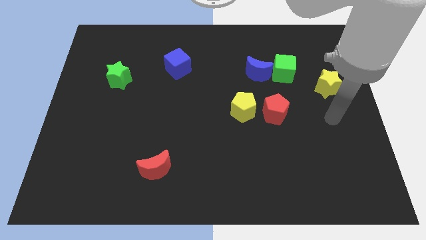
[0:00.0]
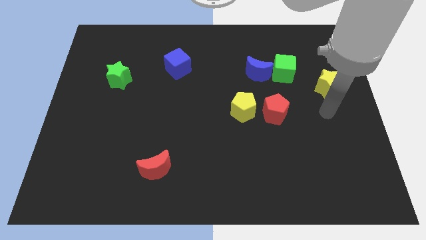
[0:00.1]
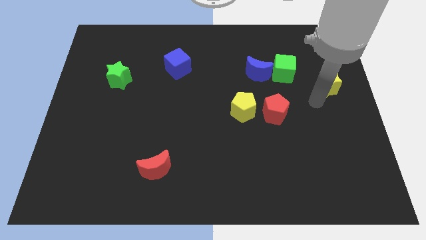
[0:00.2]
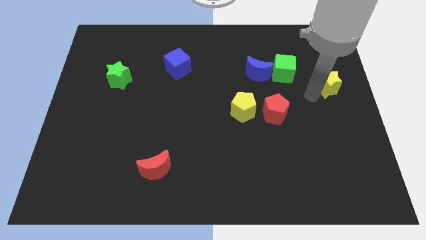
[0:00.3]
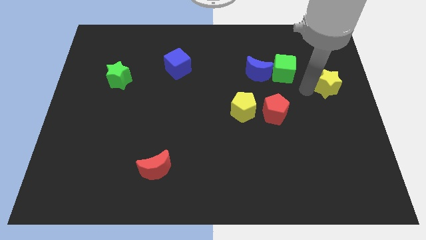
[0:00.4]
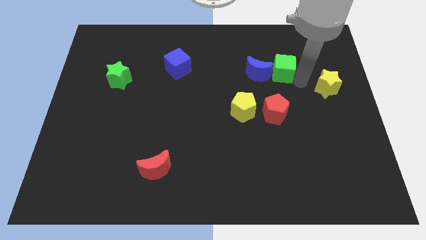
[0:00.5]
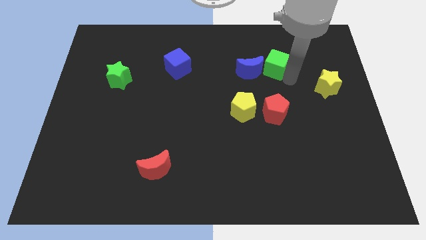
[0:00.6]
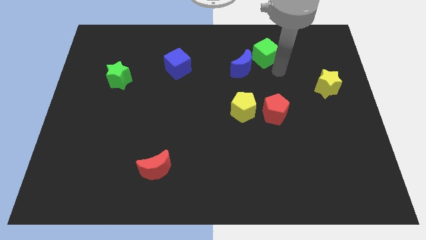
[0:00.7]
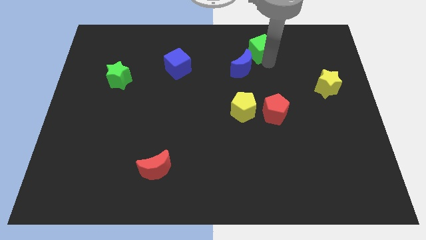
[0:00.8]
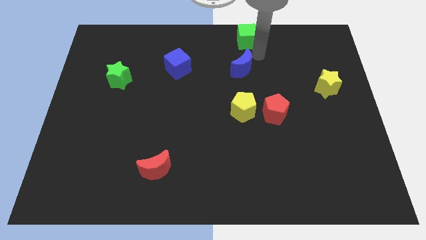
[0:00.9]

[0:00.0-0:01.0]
separate the blue moon from the green cube

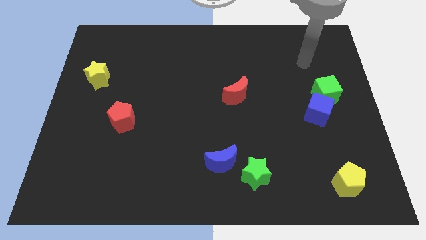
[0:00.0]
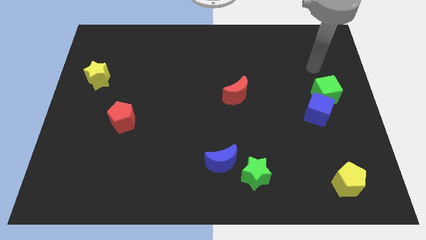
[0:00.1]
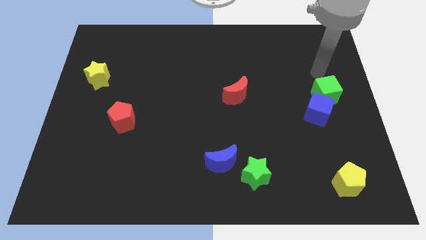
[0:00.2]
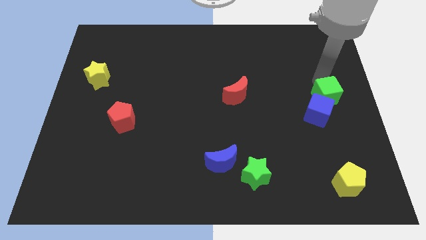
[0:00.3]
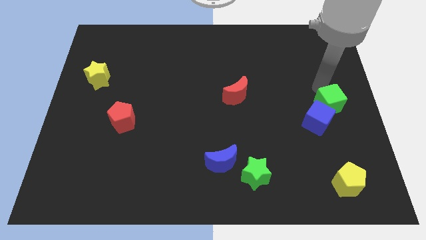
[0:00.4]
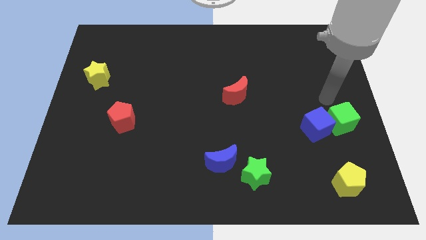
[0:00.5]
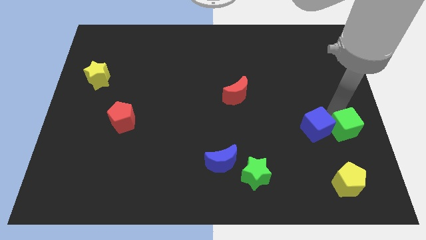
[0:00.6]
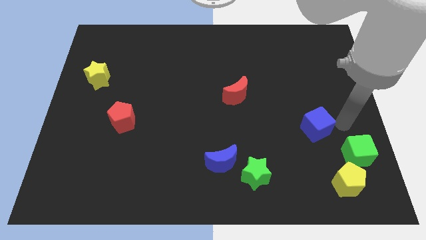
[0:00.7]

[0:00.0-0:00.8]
separate the blue cube from the green cube

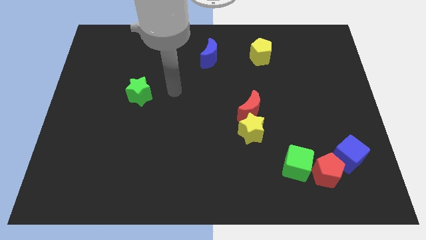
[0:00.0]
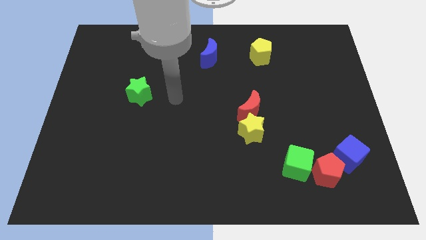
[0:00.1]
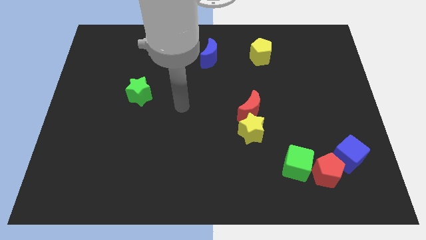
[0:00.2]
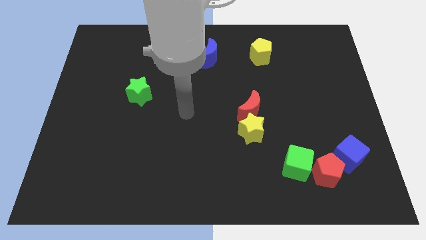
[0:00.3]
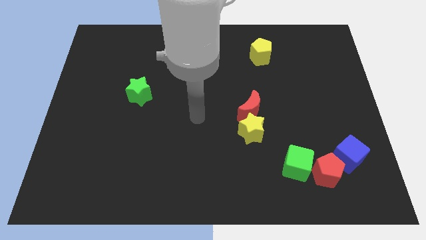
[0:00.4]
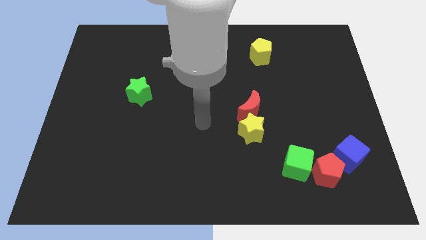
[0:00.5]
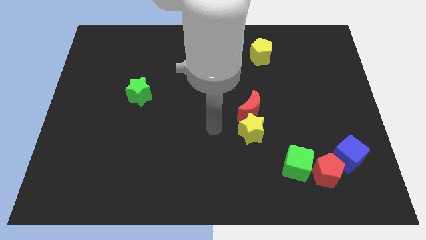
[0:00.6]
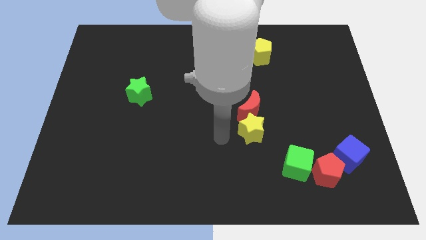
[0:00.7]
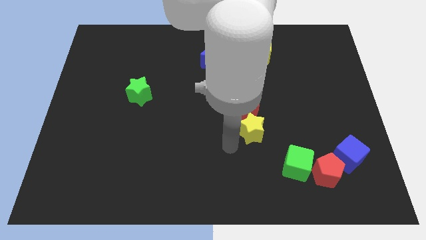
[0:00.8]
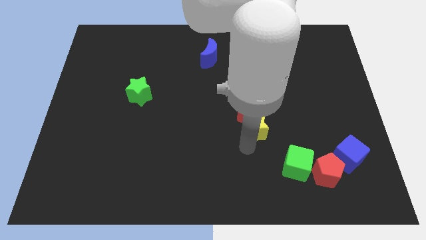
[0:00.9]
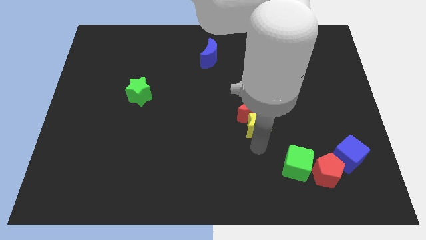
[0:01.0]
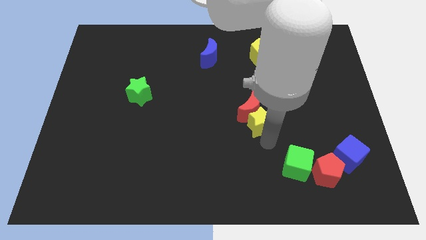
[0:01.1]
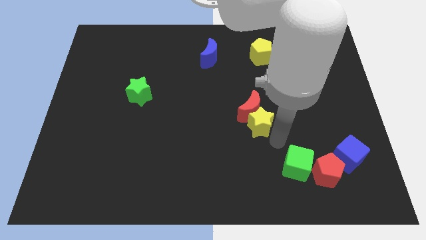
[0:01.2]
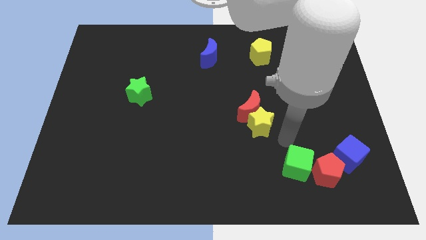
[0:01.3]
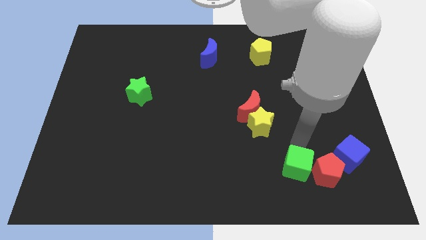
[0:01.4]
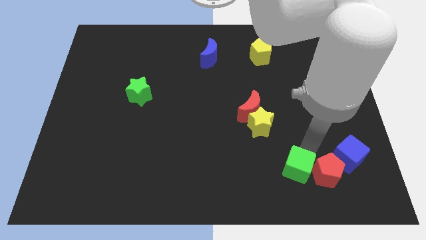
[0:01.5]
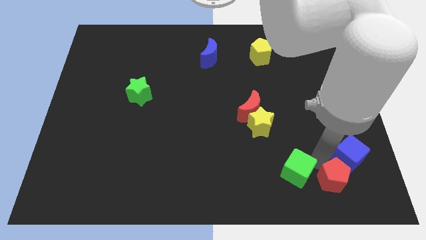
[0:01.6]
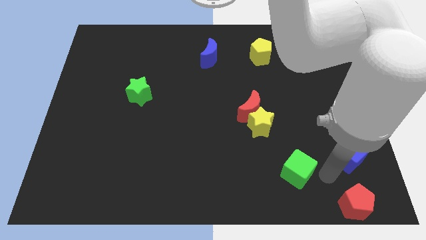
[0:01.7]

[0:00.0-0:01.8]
move the green cube away from the red pentagon

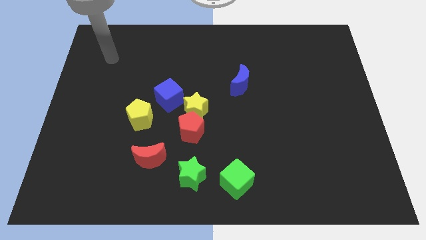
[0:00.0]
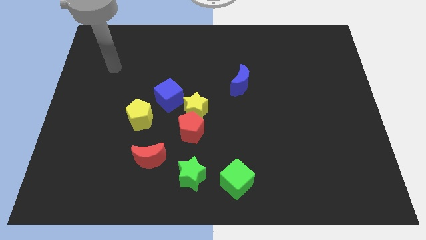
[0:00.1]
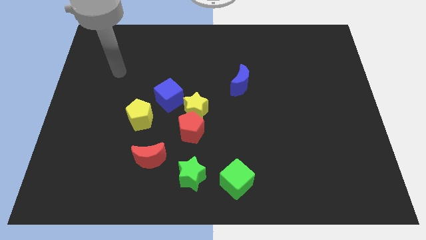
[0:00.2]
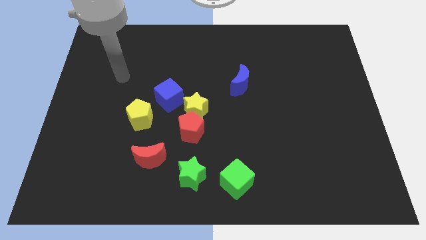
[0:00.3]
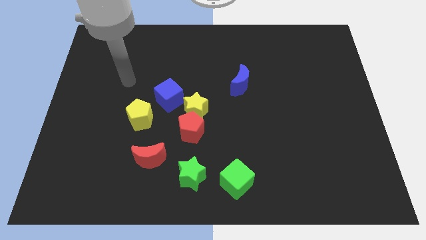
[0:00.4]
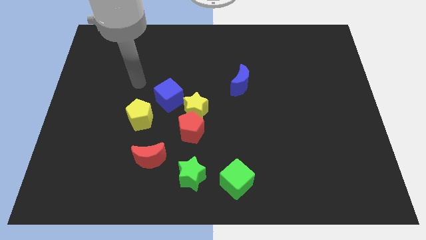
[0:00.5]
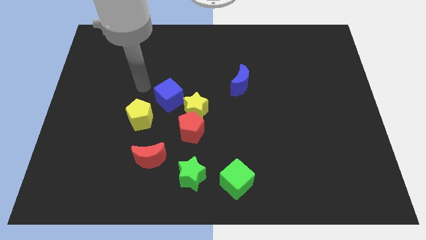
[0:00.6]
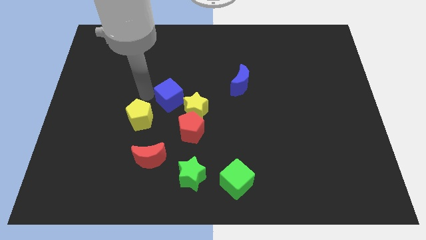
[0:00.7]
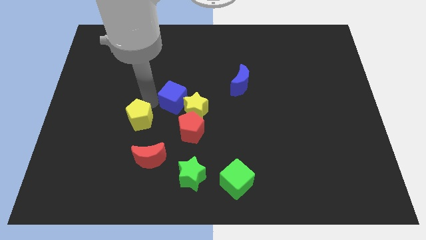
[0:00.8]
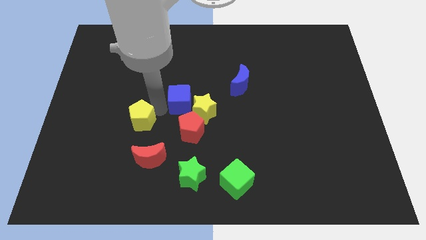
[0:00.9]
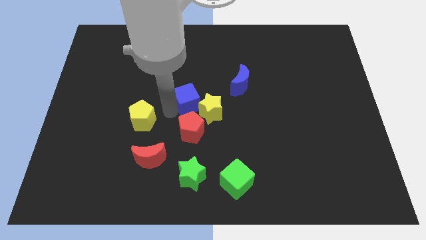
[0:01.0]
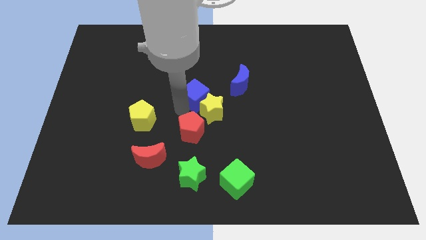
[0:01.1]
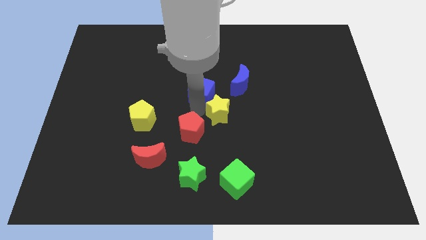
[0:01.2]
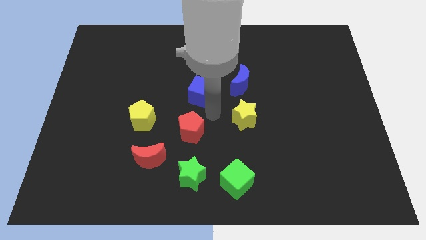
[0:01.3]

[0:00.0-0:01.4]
separate the red pentagon from the yellow star

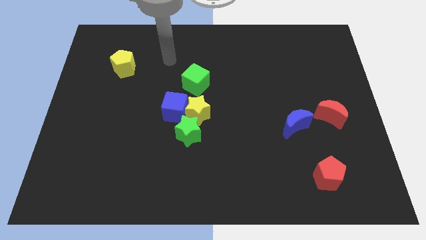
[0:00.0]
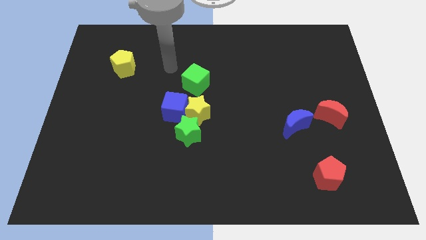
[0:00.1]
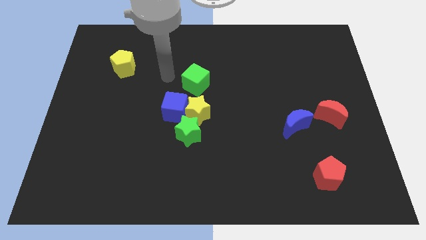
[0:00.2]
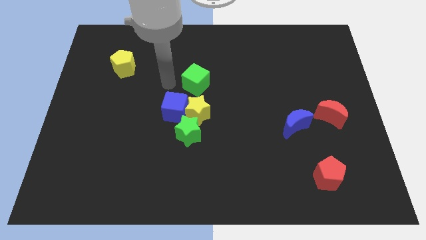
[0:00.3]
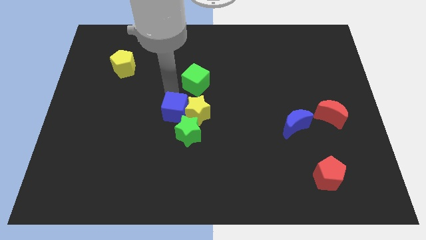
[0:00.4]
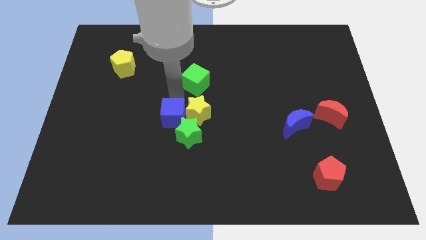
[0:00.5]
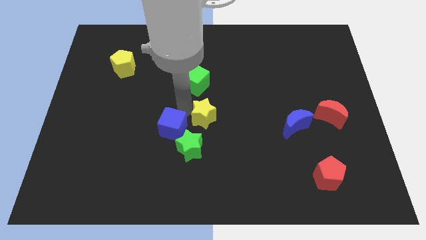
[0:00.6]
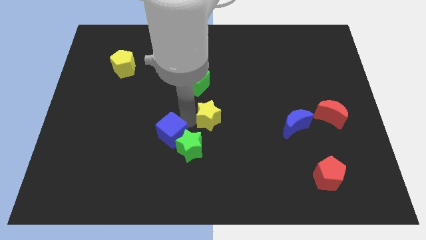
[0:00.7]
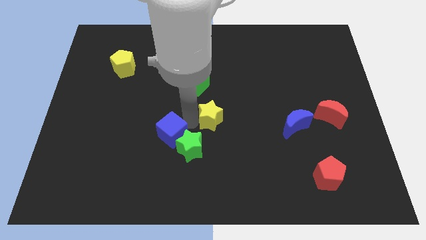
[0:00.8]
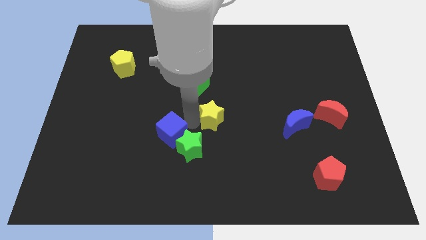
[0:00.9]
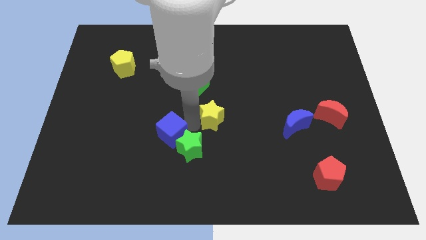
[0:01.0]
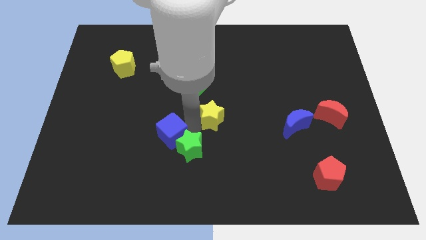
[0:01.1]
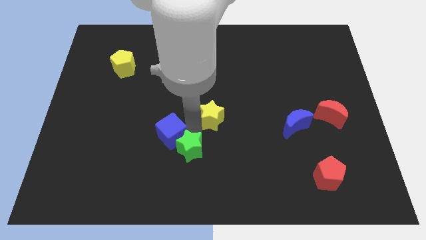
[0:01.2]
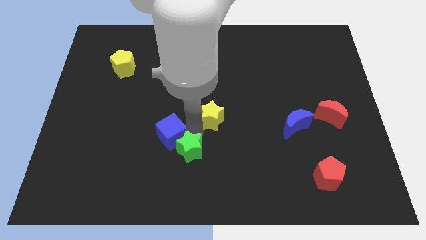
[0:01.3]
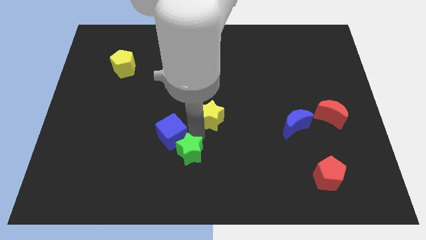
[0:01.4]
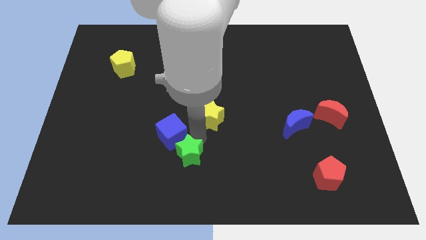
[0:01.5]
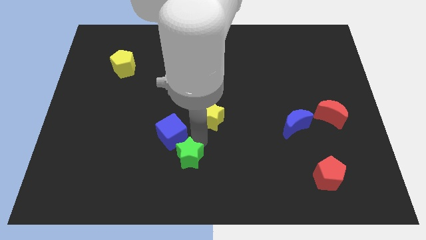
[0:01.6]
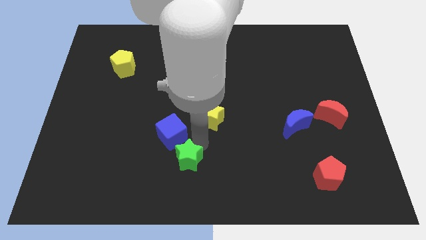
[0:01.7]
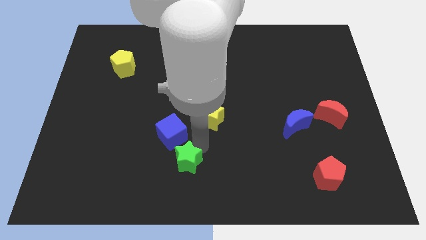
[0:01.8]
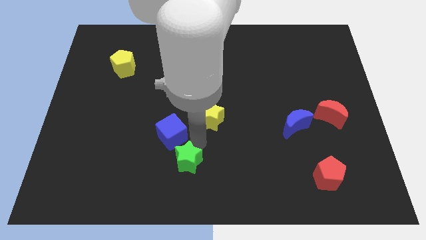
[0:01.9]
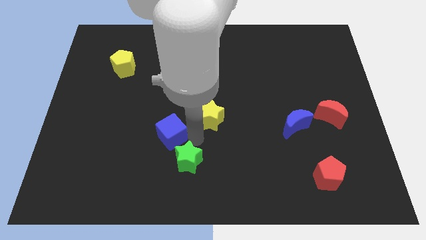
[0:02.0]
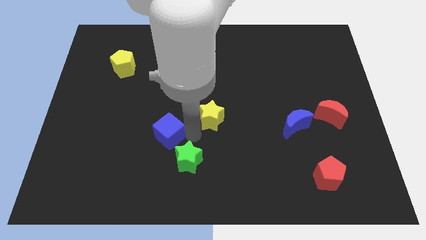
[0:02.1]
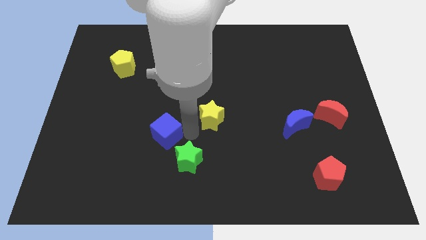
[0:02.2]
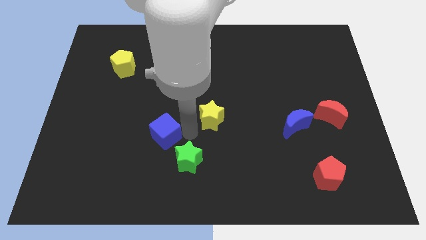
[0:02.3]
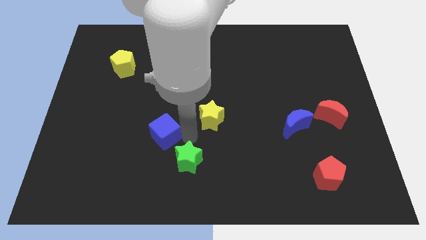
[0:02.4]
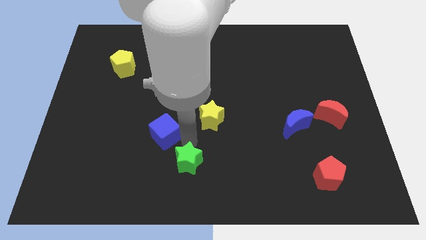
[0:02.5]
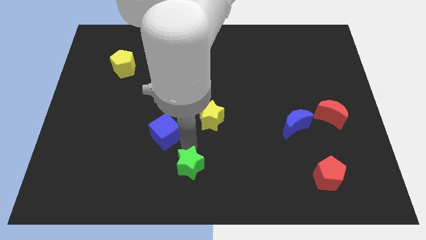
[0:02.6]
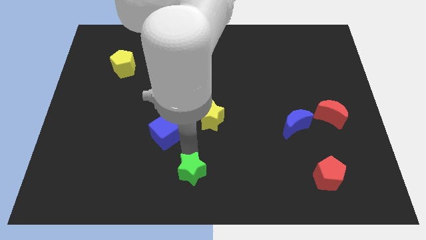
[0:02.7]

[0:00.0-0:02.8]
separate the green star from the yellow star and blue cube

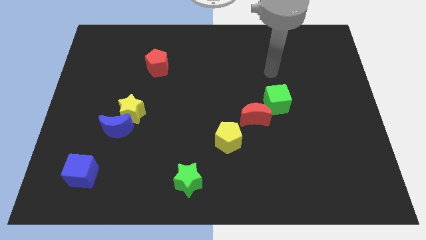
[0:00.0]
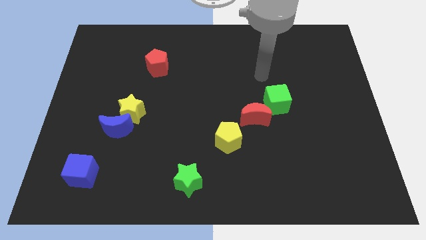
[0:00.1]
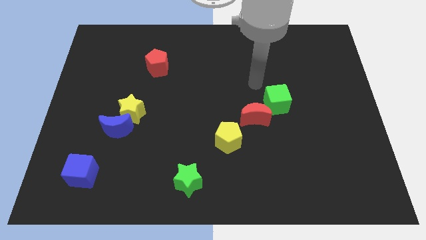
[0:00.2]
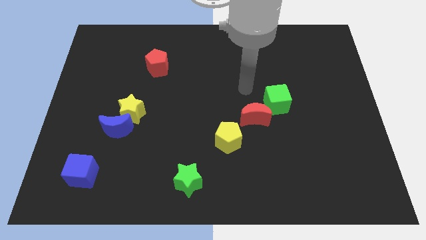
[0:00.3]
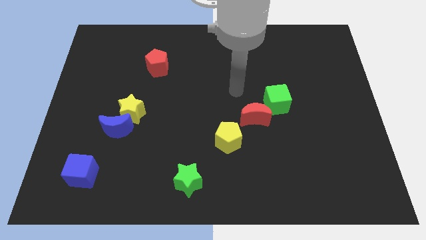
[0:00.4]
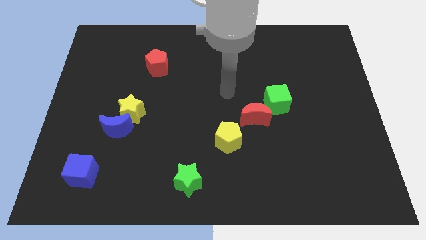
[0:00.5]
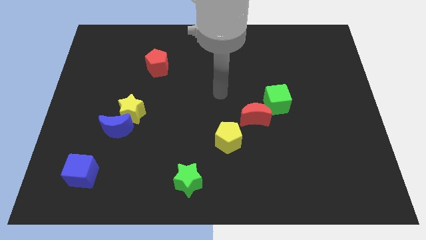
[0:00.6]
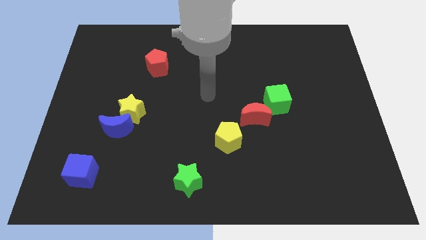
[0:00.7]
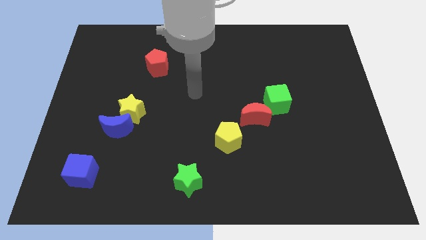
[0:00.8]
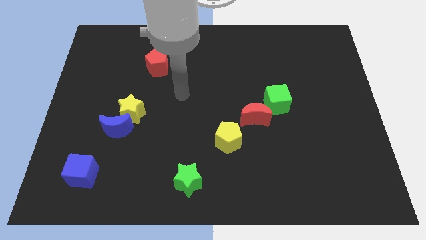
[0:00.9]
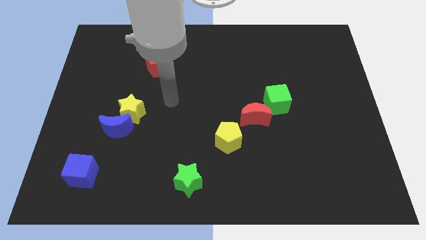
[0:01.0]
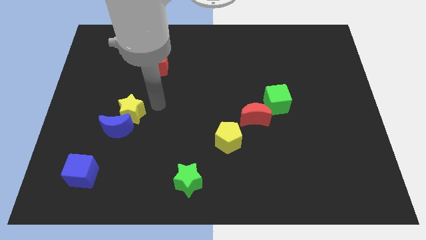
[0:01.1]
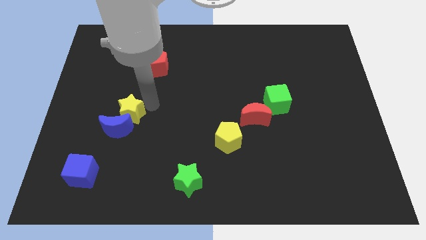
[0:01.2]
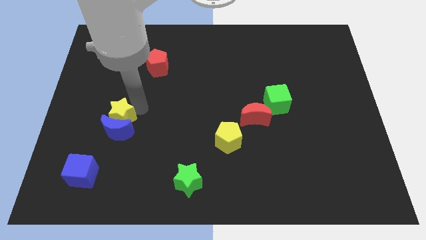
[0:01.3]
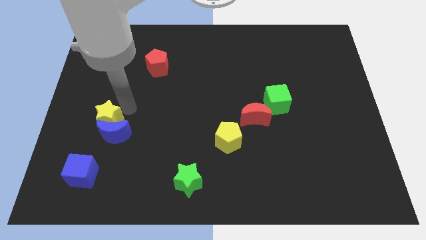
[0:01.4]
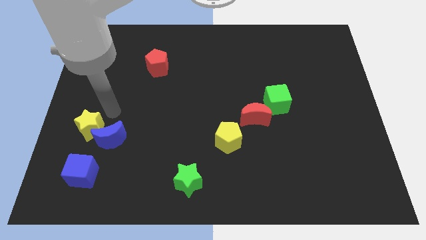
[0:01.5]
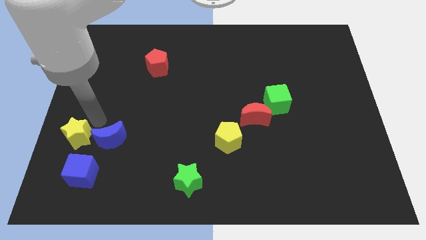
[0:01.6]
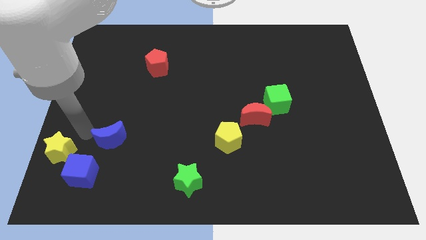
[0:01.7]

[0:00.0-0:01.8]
move the blue moon away from the yellow star
